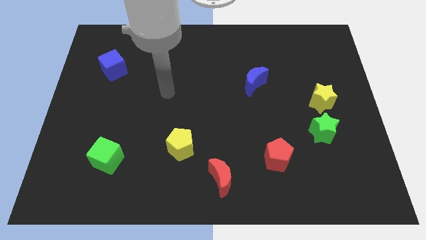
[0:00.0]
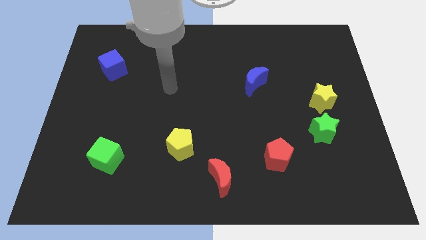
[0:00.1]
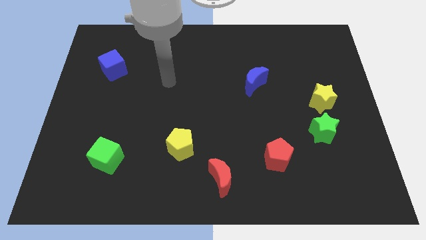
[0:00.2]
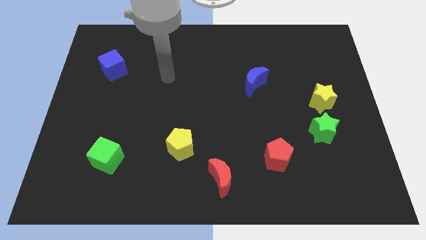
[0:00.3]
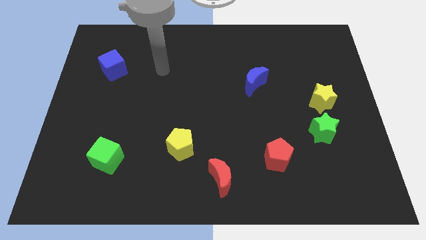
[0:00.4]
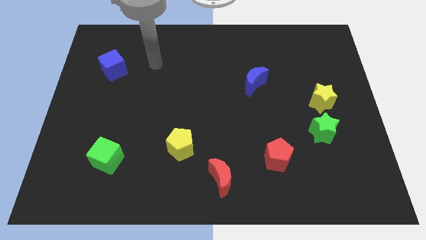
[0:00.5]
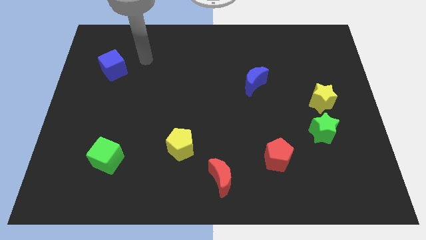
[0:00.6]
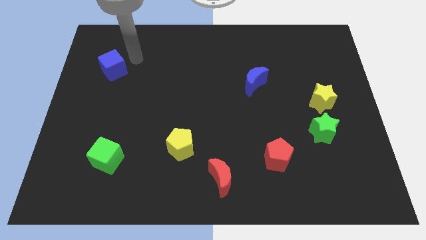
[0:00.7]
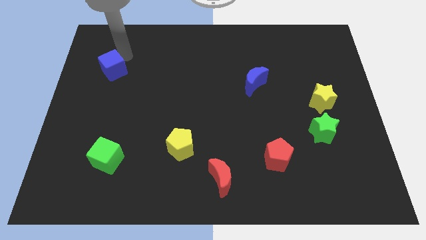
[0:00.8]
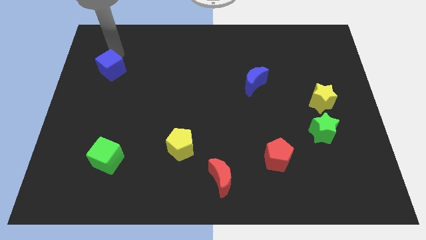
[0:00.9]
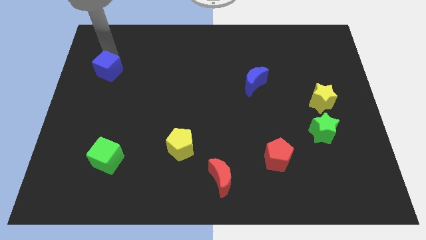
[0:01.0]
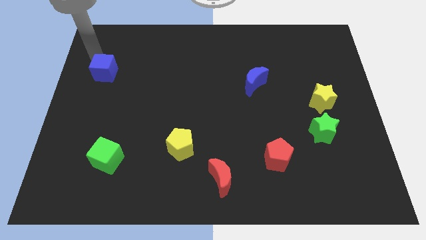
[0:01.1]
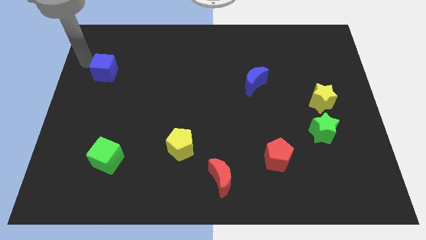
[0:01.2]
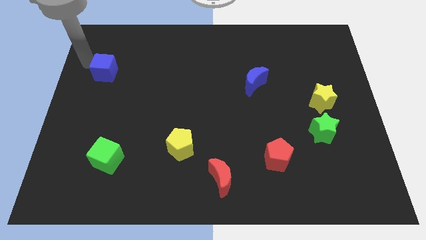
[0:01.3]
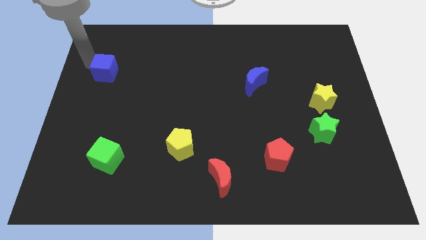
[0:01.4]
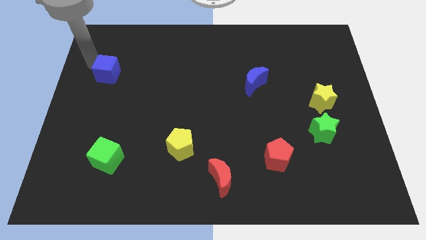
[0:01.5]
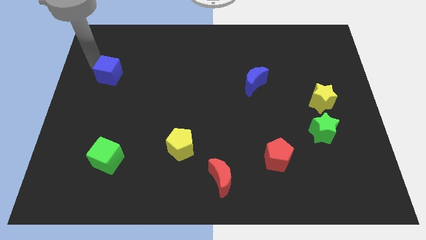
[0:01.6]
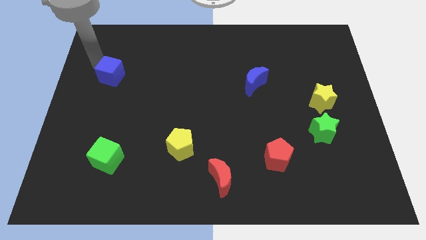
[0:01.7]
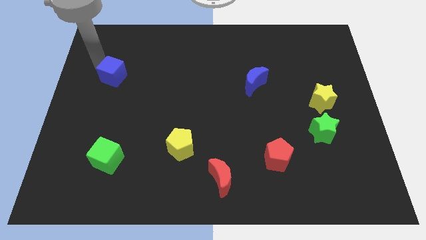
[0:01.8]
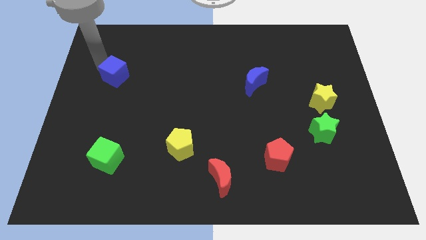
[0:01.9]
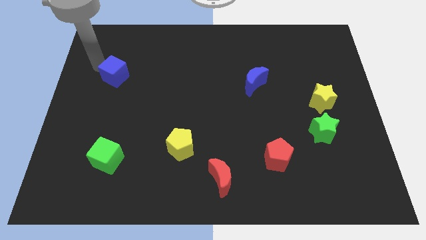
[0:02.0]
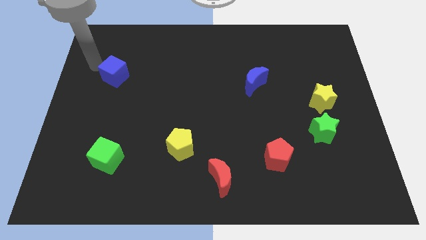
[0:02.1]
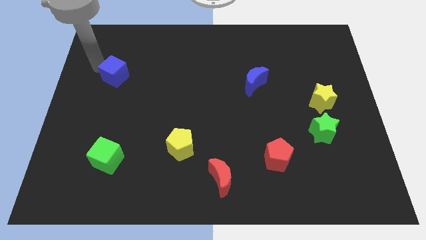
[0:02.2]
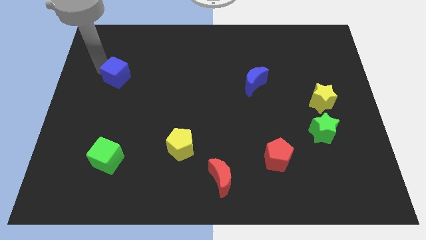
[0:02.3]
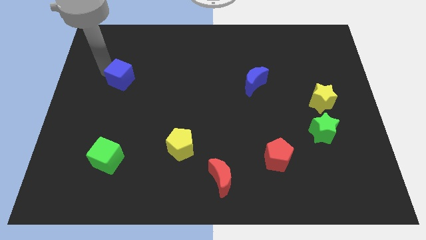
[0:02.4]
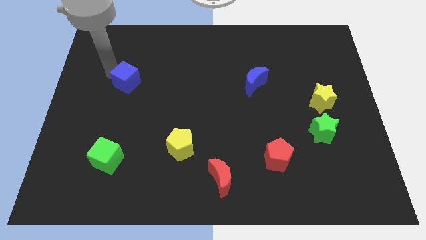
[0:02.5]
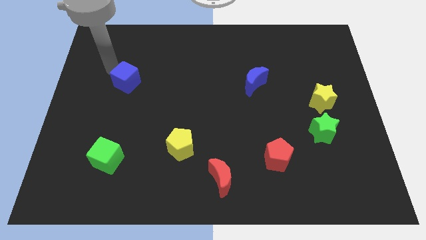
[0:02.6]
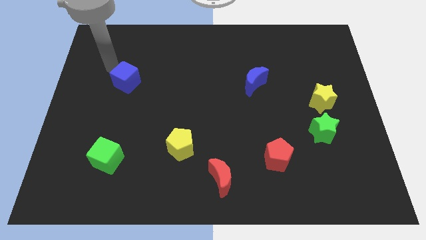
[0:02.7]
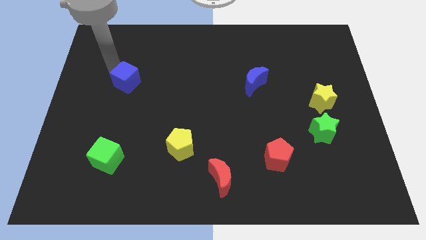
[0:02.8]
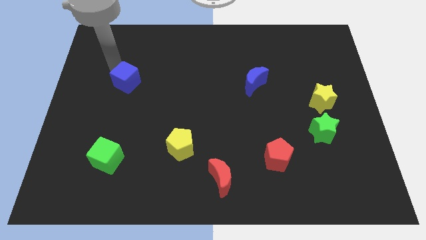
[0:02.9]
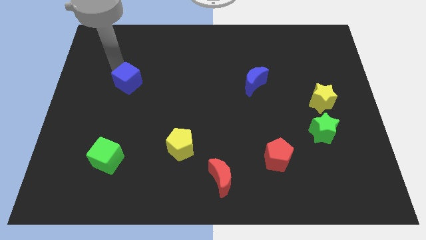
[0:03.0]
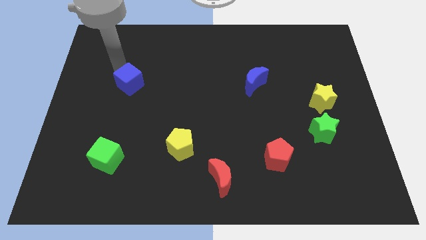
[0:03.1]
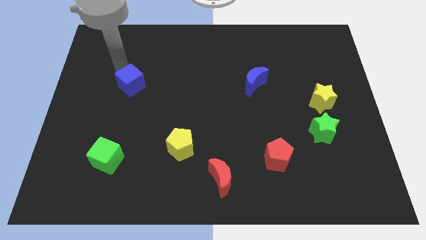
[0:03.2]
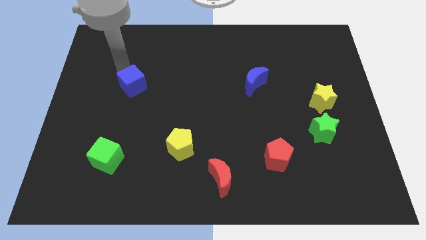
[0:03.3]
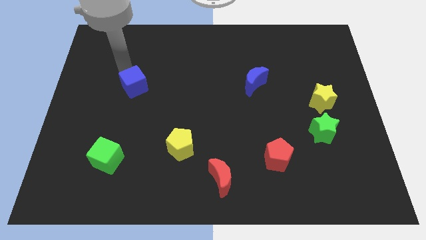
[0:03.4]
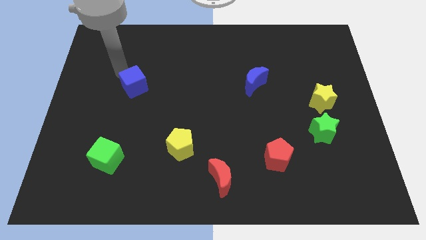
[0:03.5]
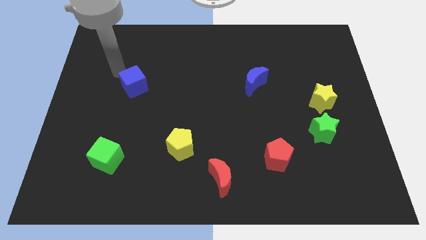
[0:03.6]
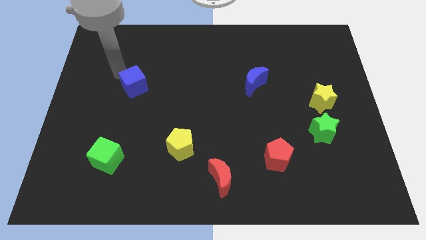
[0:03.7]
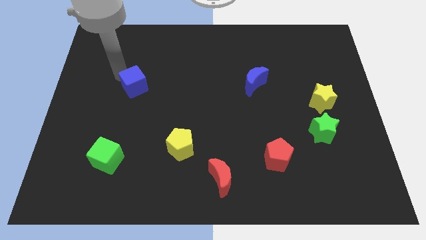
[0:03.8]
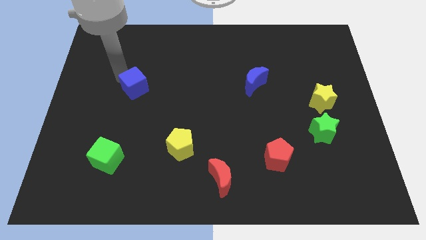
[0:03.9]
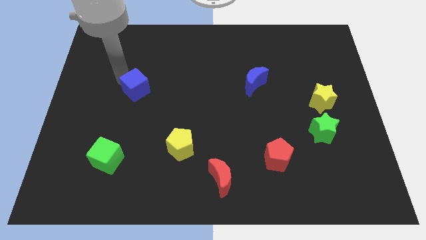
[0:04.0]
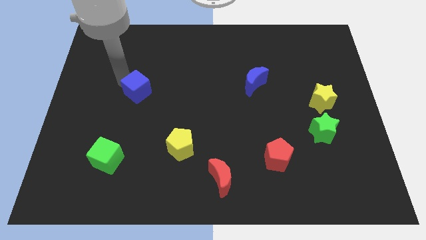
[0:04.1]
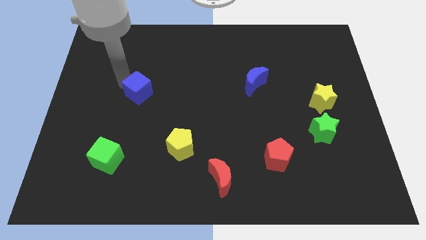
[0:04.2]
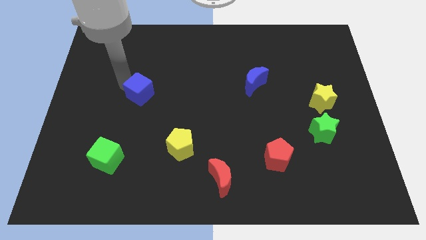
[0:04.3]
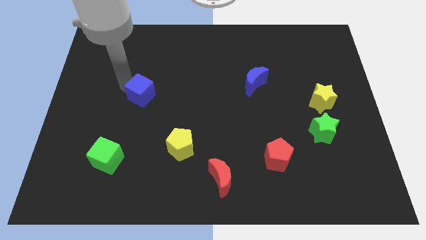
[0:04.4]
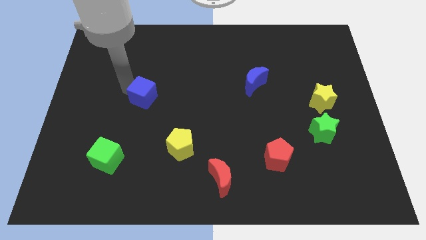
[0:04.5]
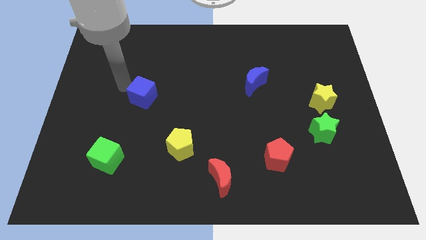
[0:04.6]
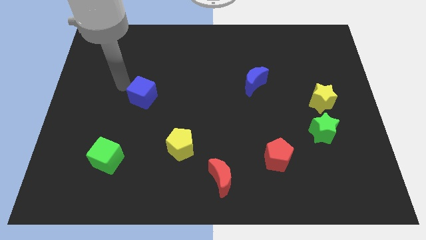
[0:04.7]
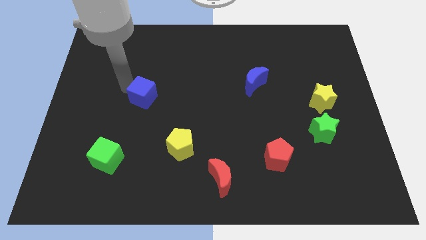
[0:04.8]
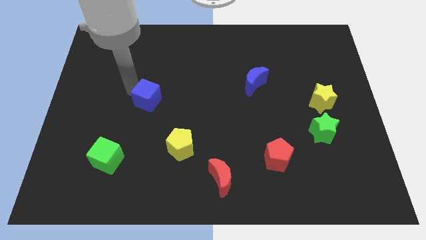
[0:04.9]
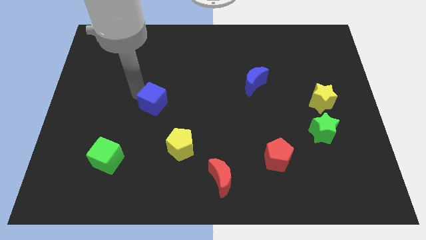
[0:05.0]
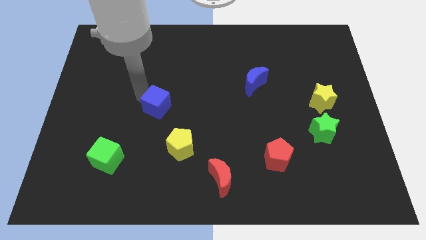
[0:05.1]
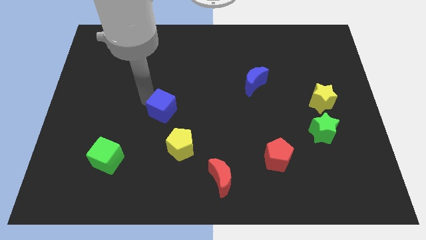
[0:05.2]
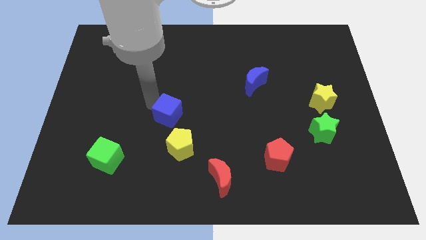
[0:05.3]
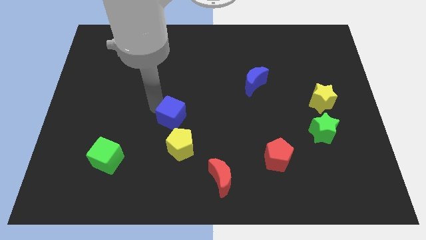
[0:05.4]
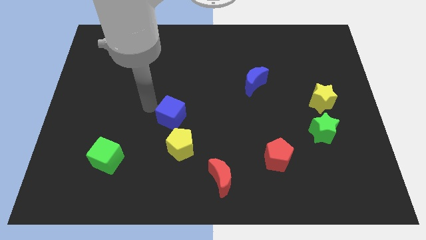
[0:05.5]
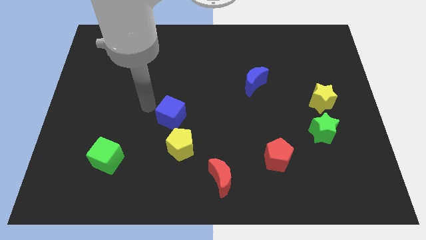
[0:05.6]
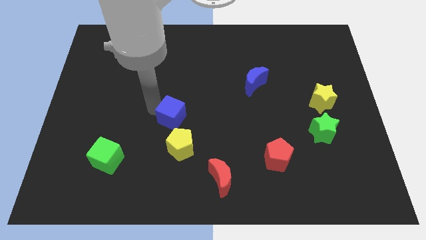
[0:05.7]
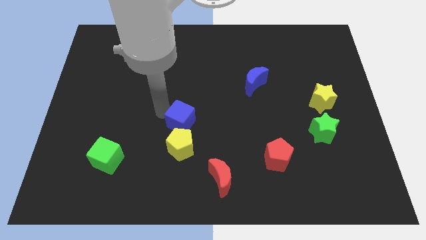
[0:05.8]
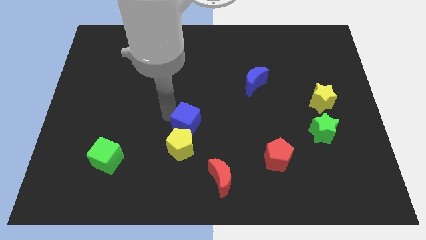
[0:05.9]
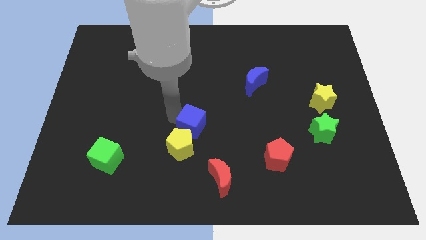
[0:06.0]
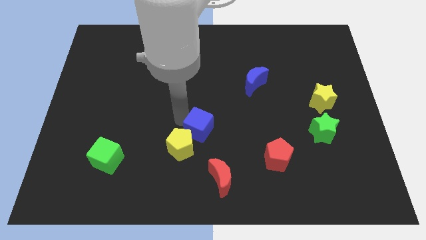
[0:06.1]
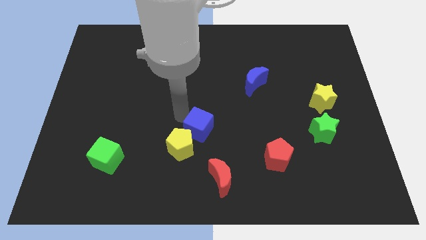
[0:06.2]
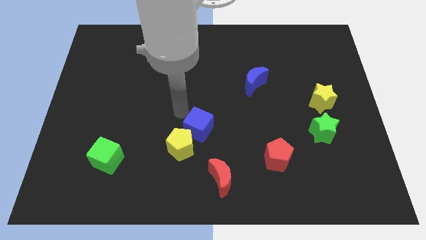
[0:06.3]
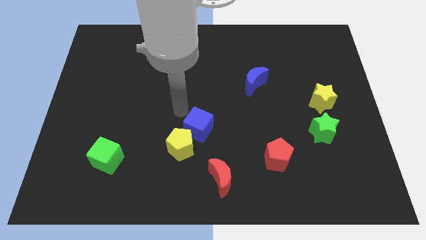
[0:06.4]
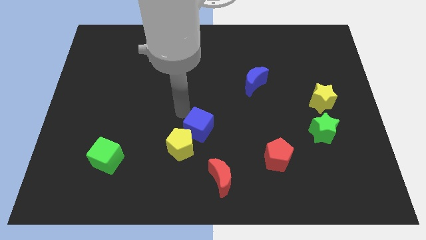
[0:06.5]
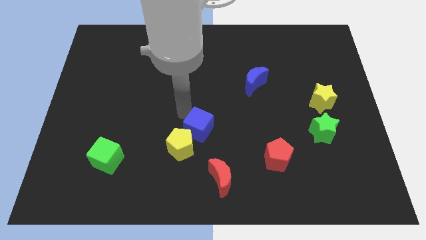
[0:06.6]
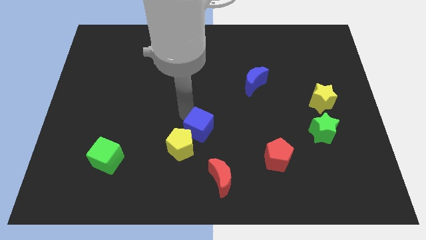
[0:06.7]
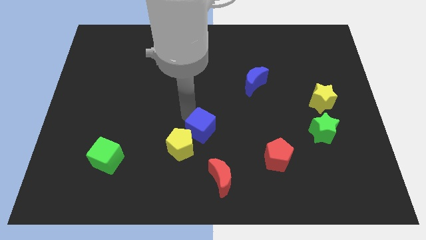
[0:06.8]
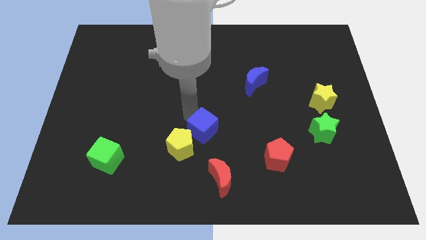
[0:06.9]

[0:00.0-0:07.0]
move the blue cube just right of the yellow pentagon
